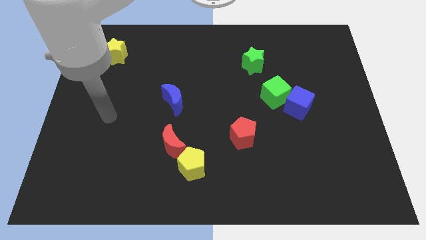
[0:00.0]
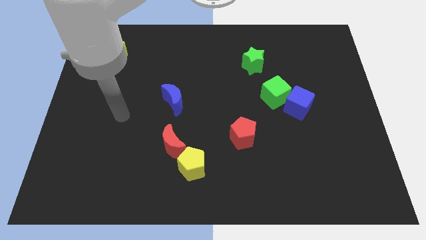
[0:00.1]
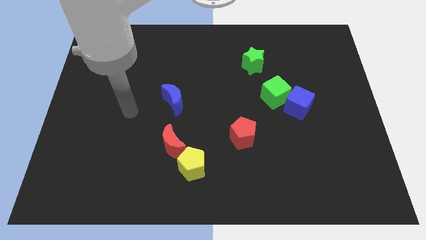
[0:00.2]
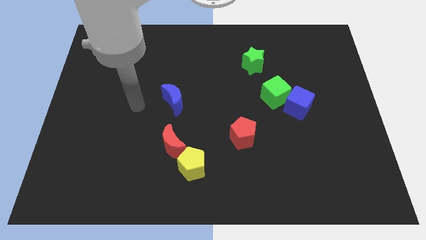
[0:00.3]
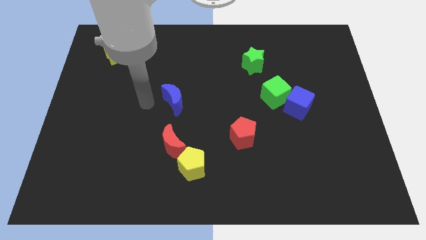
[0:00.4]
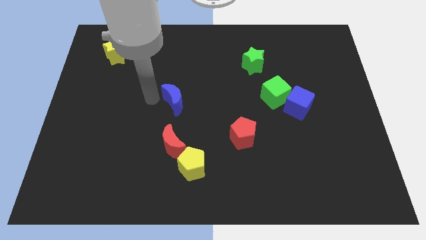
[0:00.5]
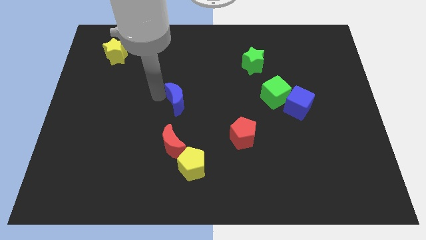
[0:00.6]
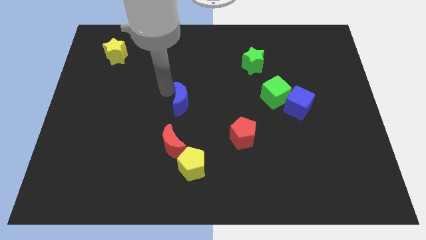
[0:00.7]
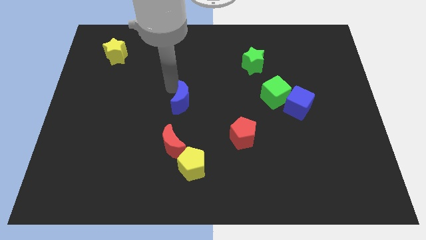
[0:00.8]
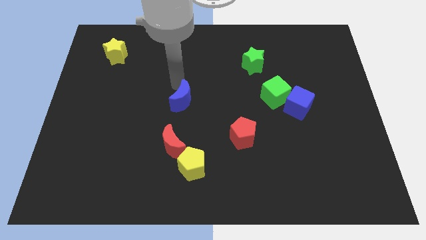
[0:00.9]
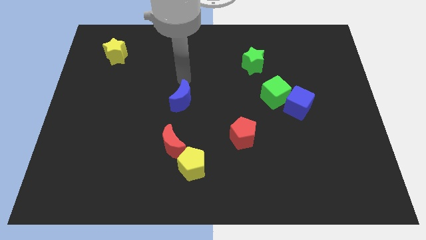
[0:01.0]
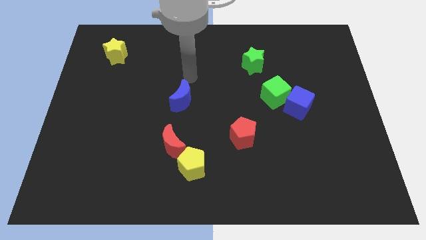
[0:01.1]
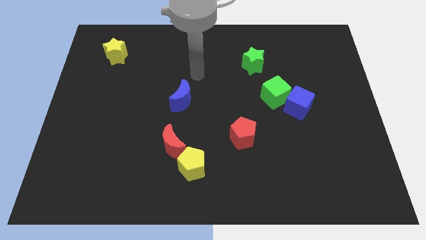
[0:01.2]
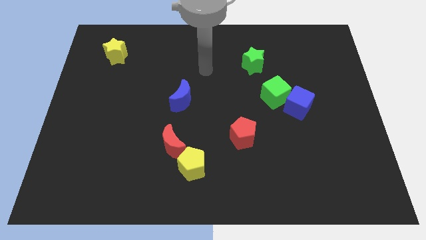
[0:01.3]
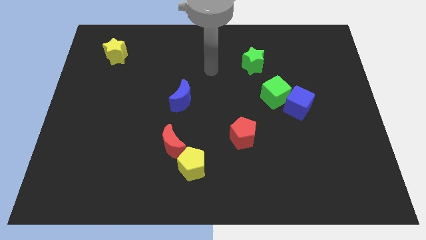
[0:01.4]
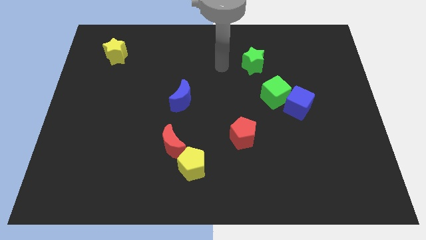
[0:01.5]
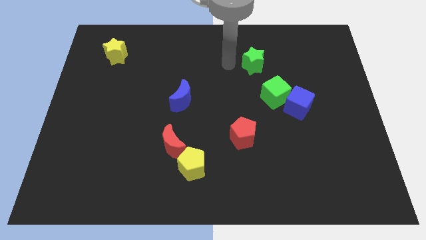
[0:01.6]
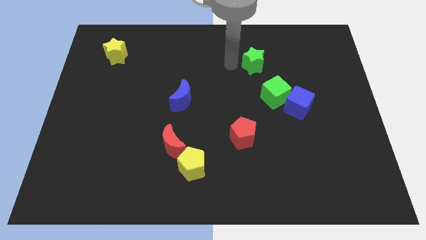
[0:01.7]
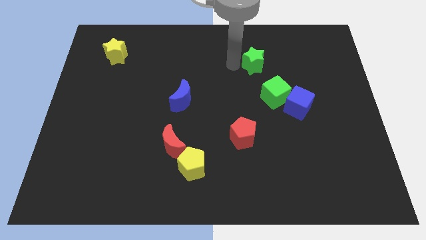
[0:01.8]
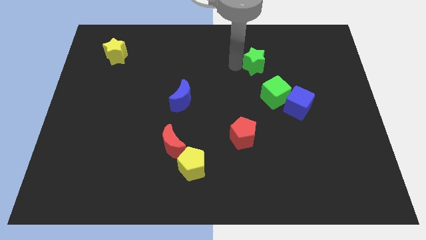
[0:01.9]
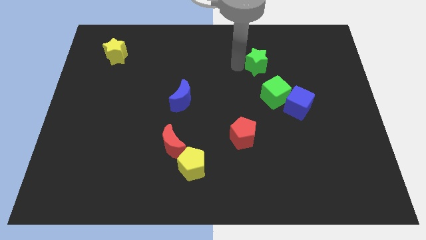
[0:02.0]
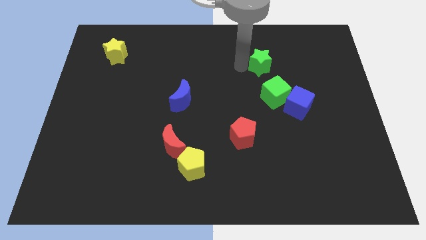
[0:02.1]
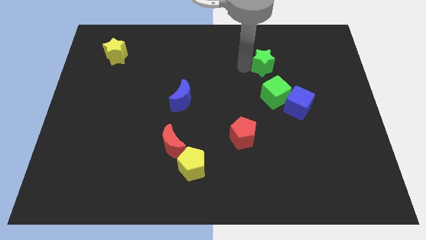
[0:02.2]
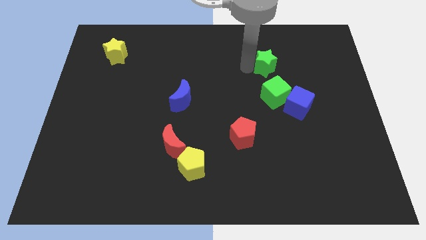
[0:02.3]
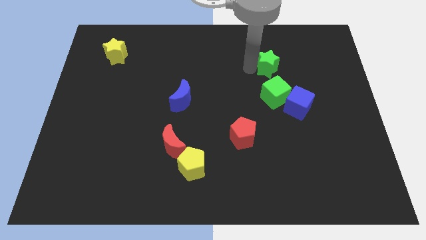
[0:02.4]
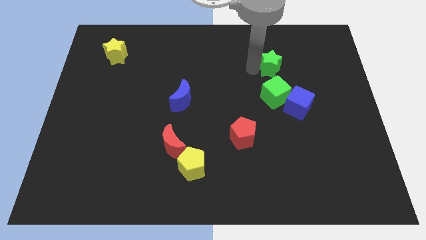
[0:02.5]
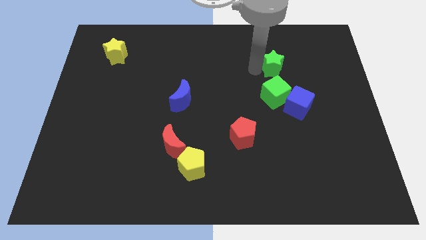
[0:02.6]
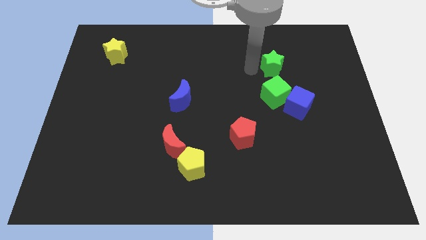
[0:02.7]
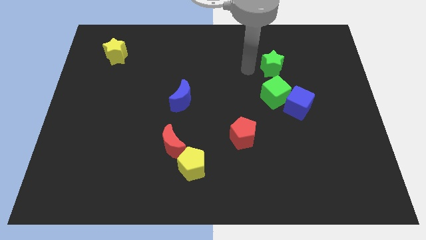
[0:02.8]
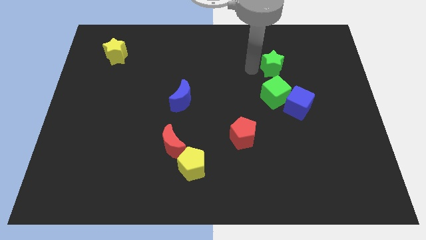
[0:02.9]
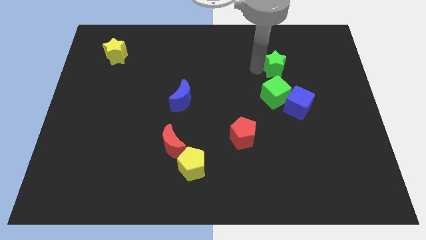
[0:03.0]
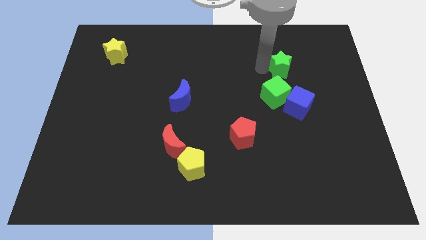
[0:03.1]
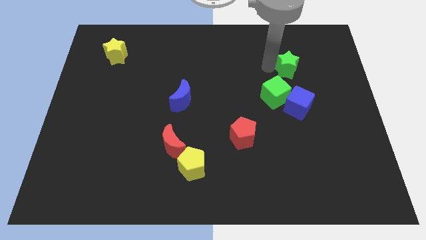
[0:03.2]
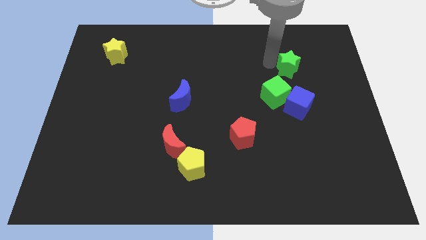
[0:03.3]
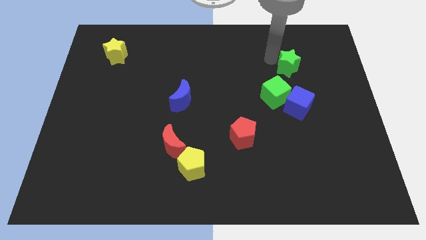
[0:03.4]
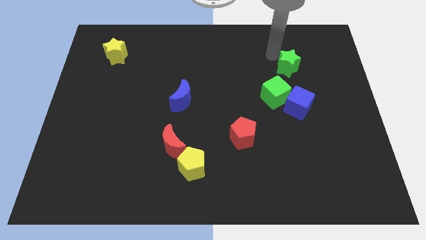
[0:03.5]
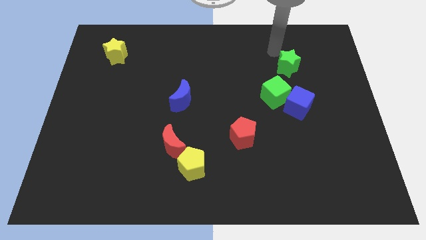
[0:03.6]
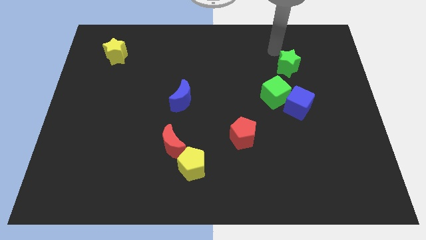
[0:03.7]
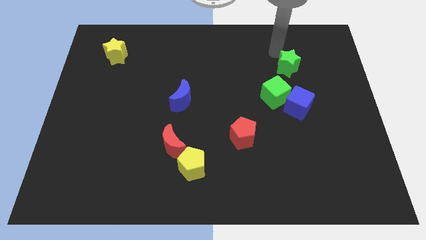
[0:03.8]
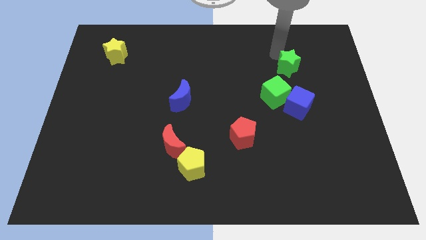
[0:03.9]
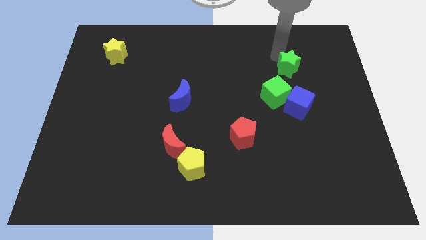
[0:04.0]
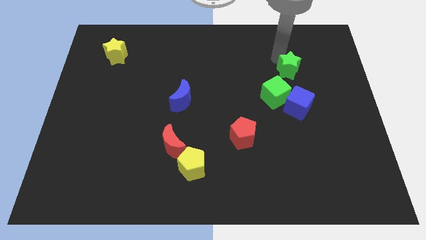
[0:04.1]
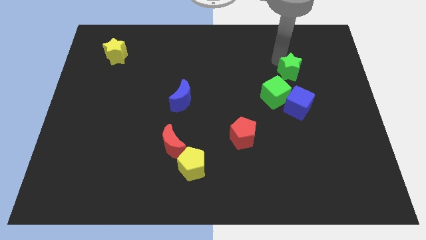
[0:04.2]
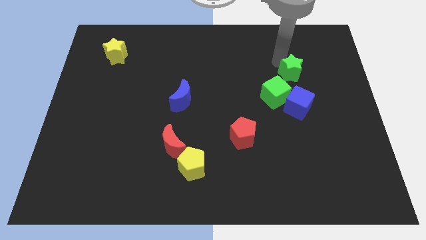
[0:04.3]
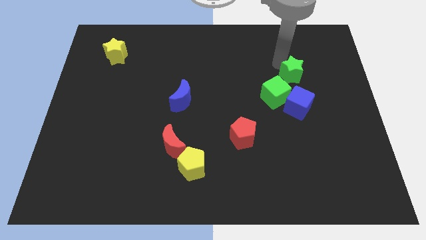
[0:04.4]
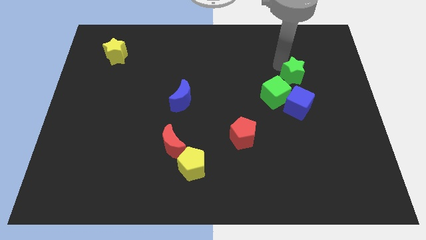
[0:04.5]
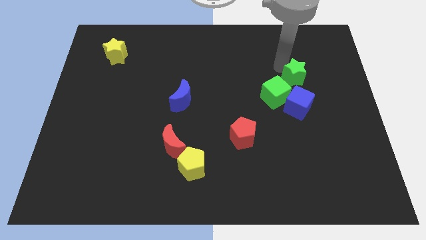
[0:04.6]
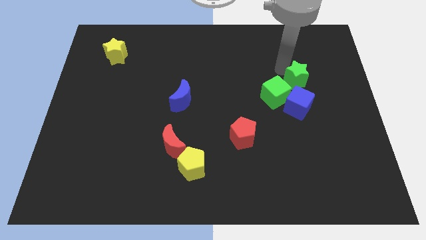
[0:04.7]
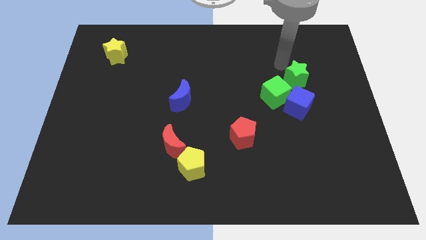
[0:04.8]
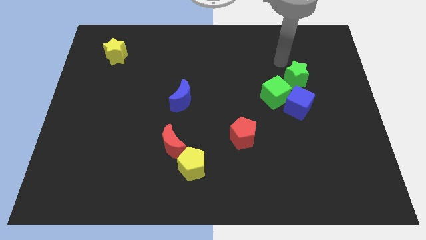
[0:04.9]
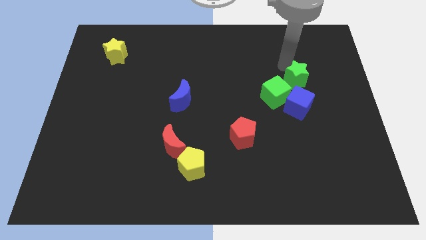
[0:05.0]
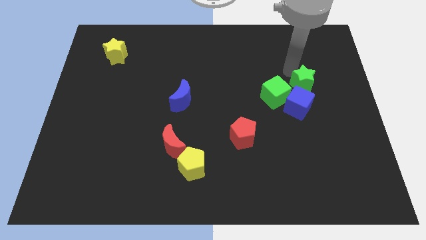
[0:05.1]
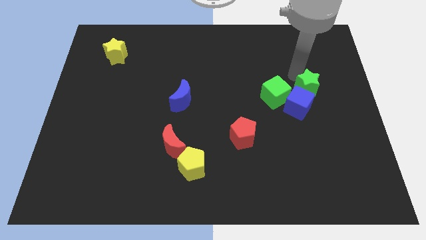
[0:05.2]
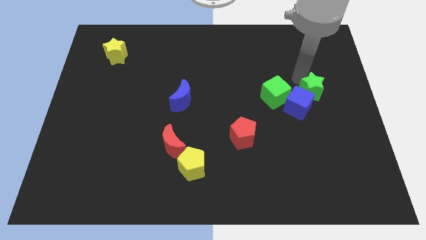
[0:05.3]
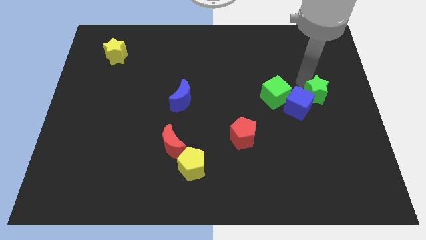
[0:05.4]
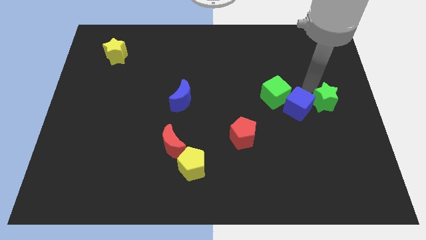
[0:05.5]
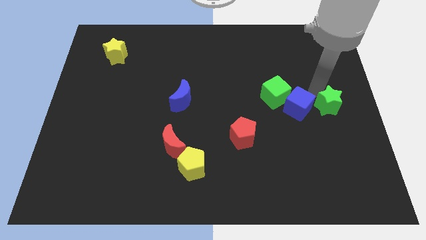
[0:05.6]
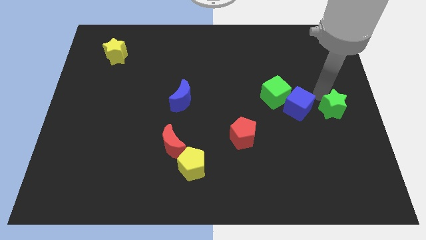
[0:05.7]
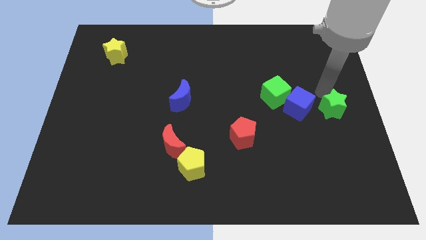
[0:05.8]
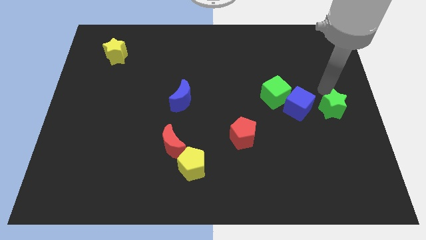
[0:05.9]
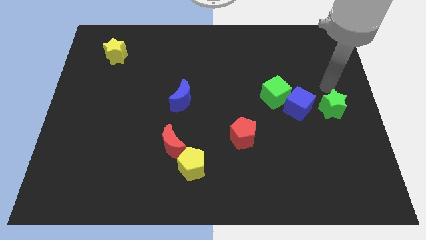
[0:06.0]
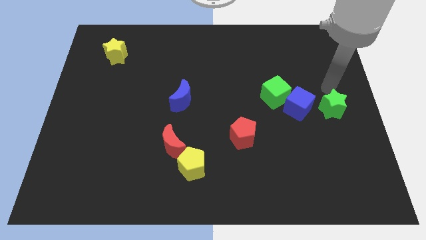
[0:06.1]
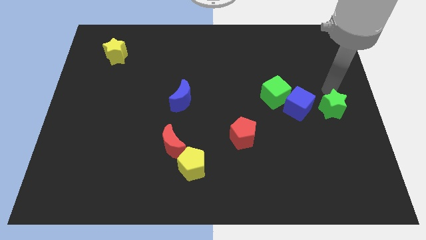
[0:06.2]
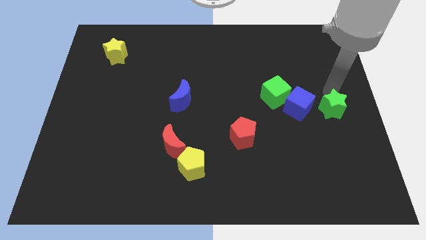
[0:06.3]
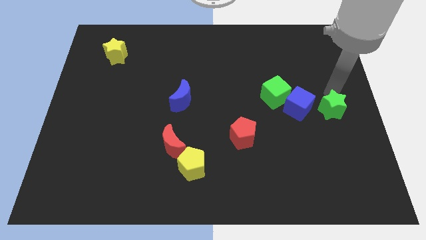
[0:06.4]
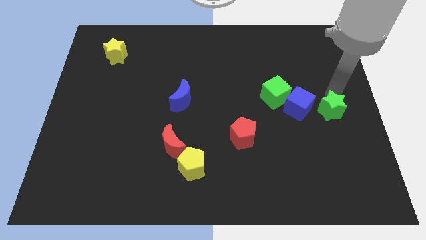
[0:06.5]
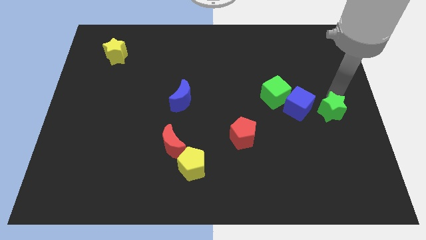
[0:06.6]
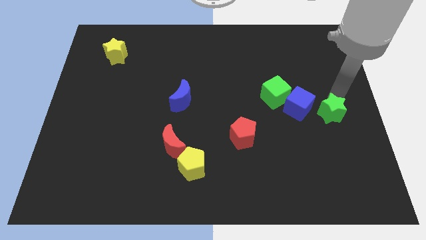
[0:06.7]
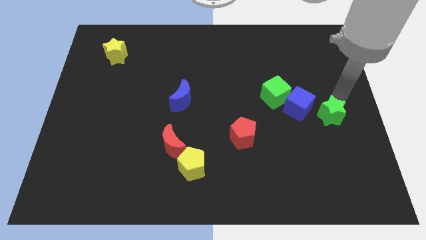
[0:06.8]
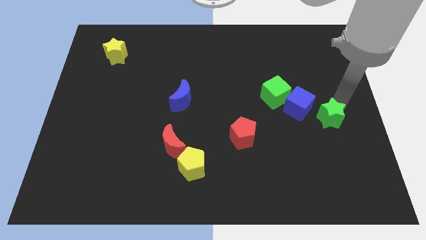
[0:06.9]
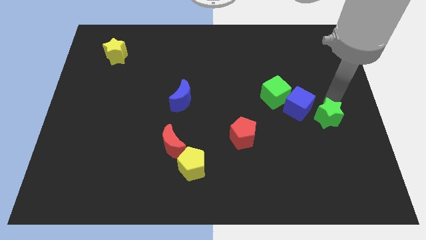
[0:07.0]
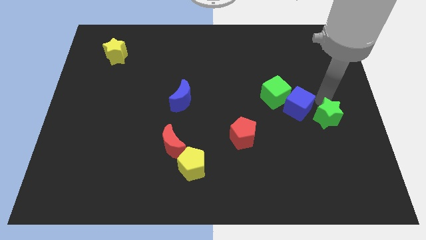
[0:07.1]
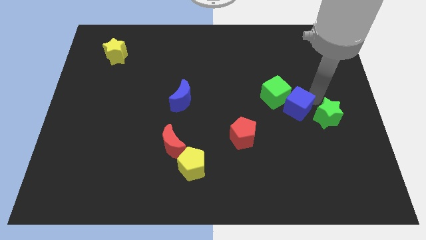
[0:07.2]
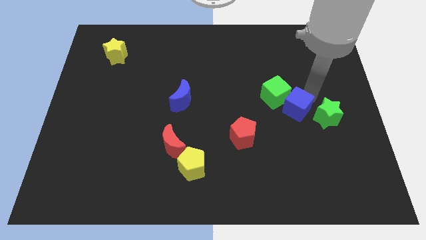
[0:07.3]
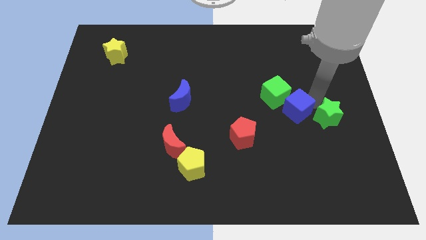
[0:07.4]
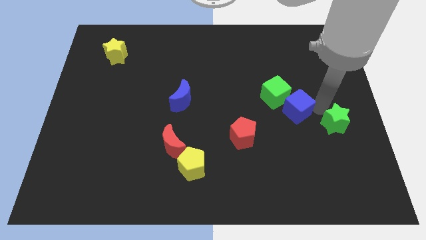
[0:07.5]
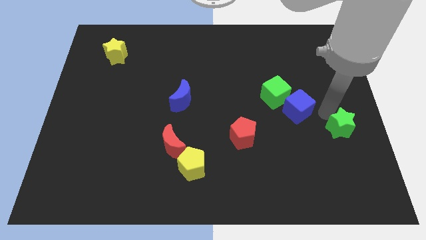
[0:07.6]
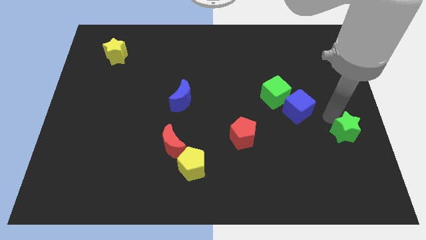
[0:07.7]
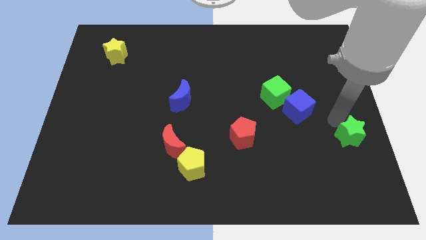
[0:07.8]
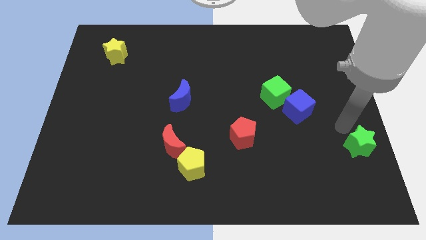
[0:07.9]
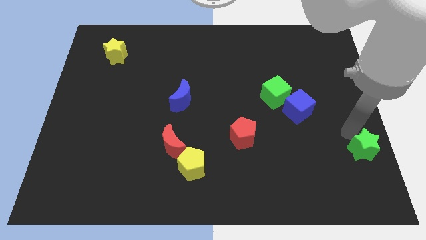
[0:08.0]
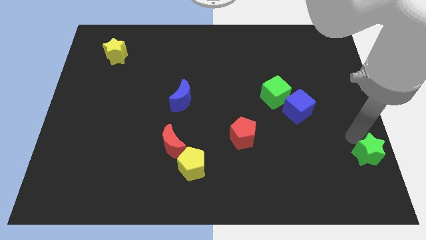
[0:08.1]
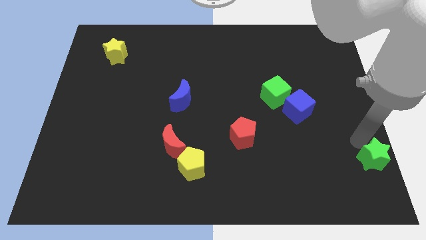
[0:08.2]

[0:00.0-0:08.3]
put the green star to the bottom right corner
